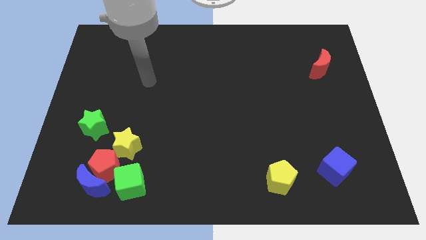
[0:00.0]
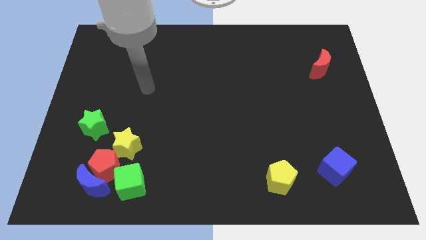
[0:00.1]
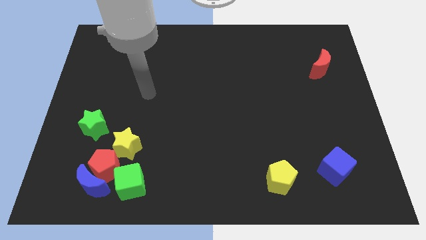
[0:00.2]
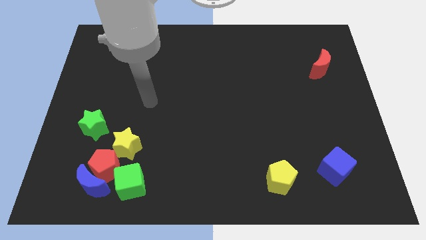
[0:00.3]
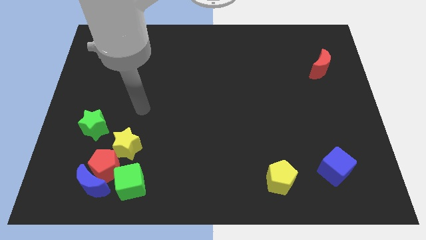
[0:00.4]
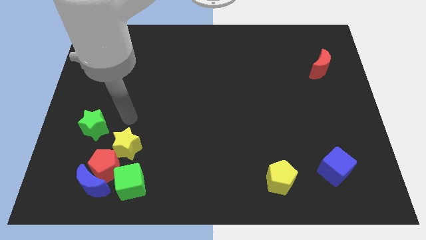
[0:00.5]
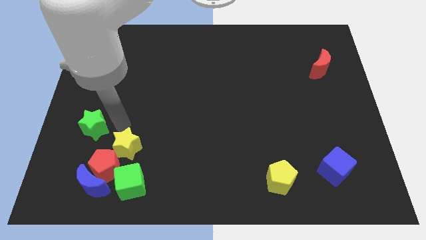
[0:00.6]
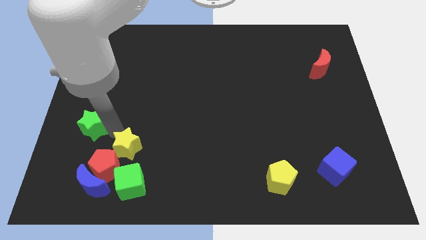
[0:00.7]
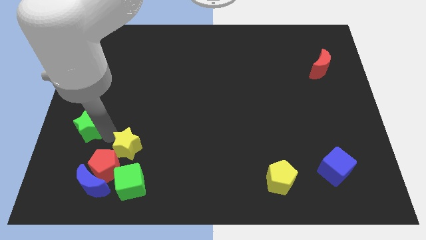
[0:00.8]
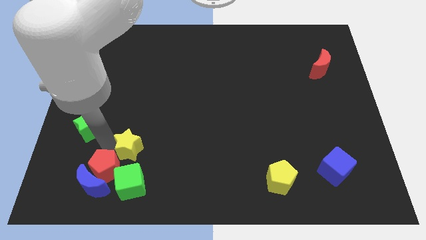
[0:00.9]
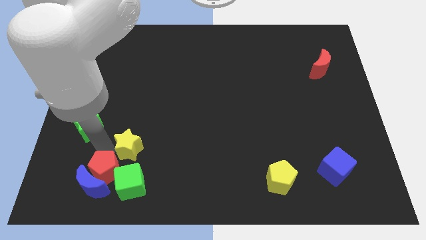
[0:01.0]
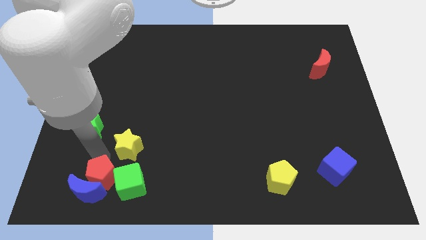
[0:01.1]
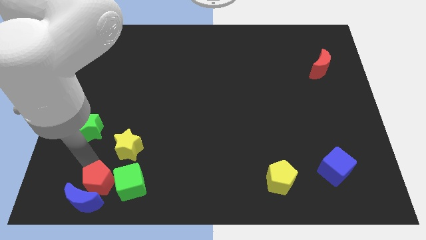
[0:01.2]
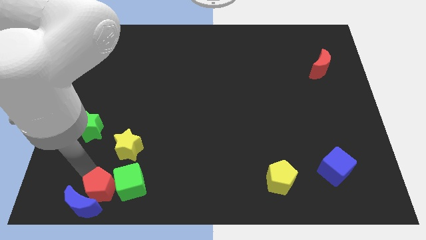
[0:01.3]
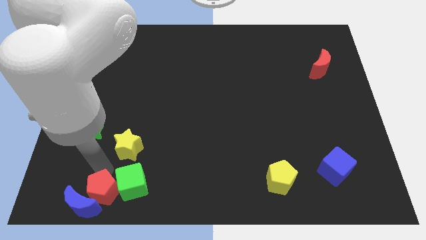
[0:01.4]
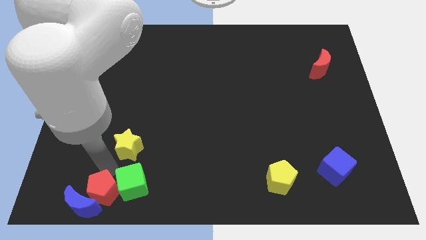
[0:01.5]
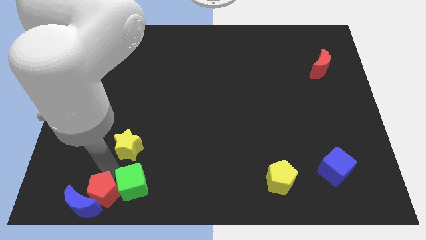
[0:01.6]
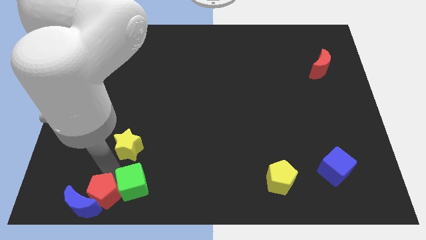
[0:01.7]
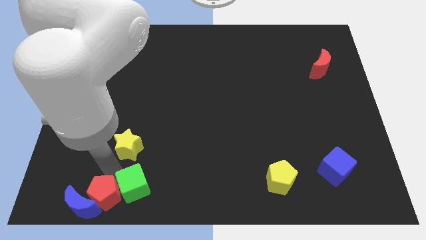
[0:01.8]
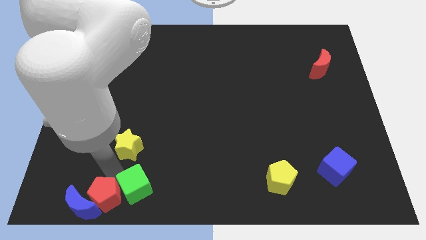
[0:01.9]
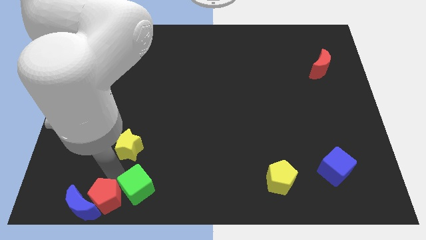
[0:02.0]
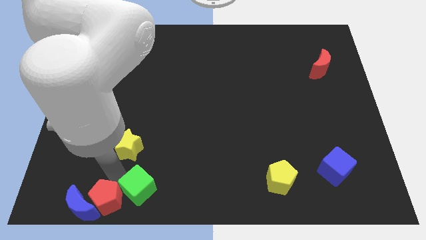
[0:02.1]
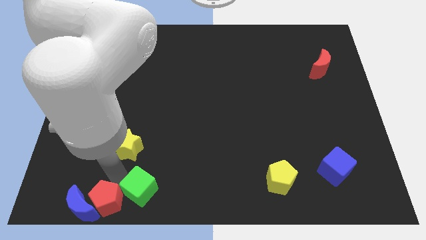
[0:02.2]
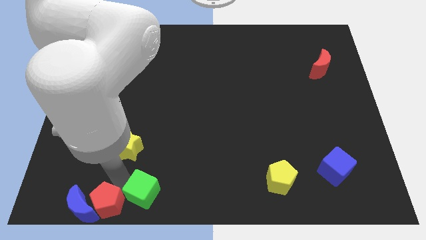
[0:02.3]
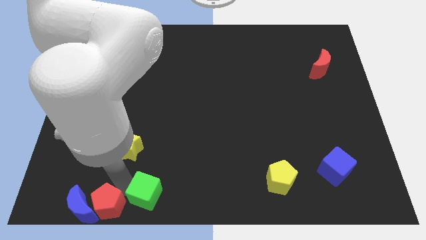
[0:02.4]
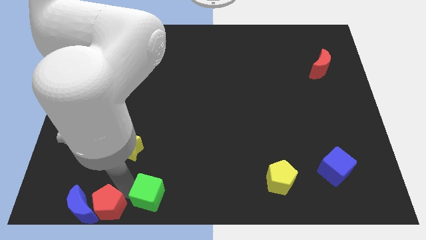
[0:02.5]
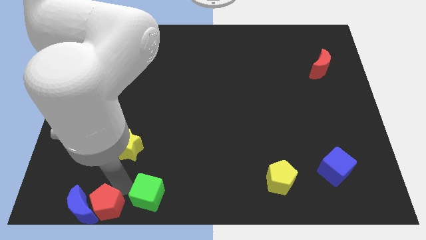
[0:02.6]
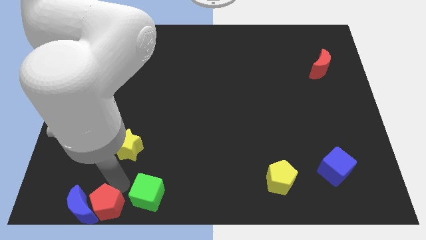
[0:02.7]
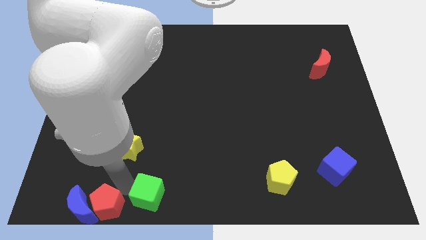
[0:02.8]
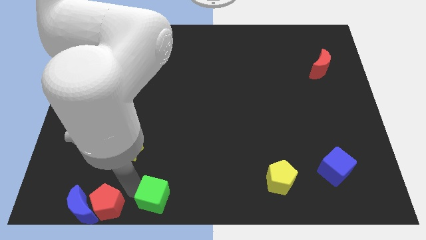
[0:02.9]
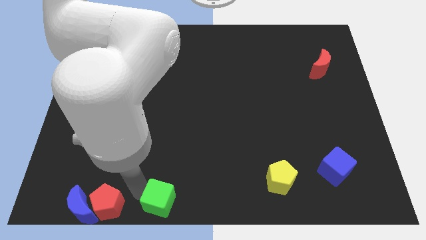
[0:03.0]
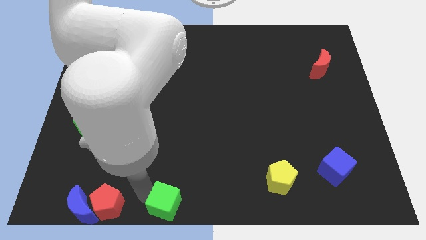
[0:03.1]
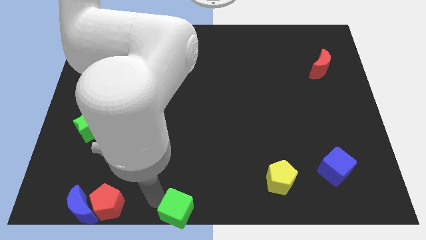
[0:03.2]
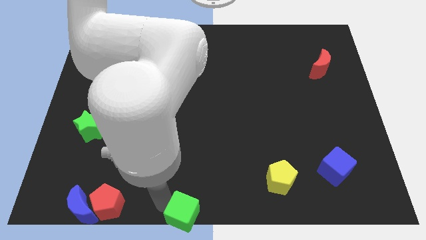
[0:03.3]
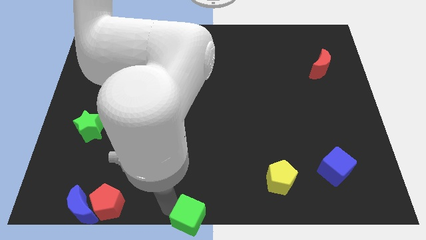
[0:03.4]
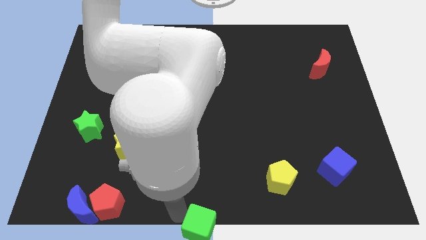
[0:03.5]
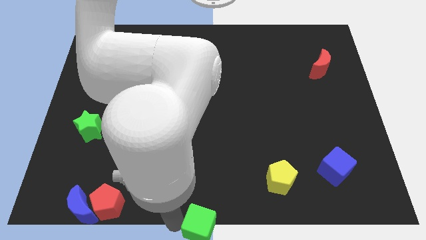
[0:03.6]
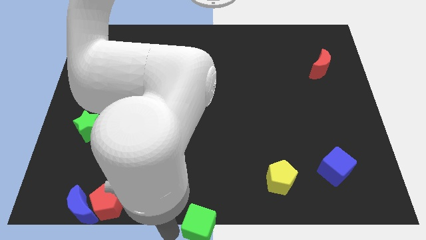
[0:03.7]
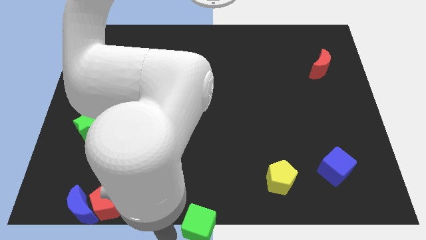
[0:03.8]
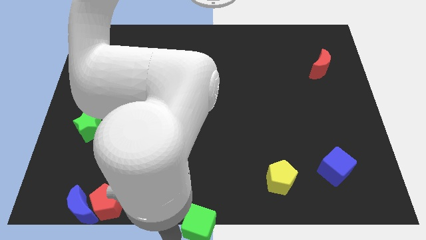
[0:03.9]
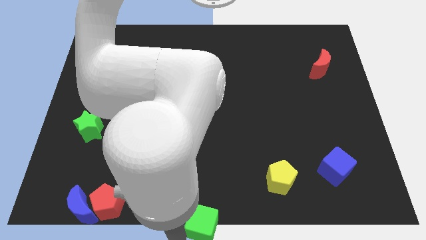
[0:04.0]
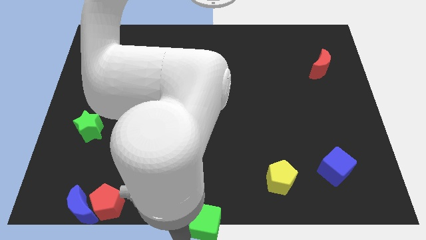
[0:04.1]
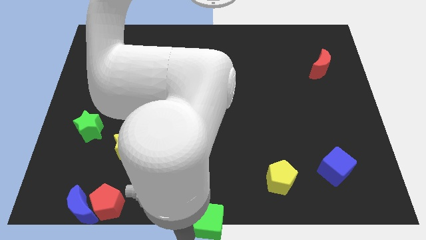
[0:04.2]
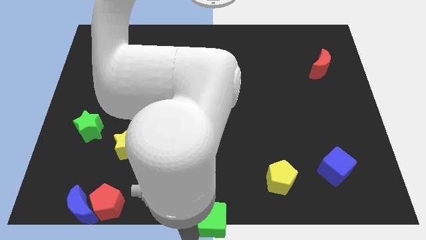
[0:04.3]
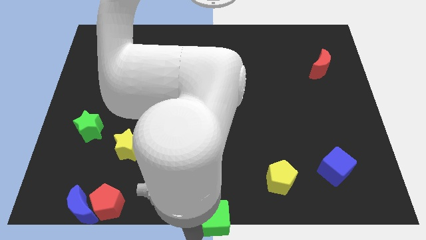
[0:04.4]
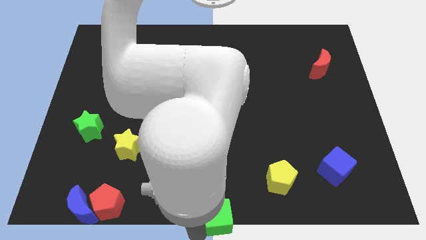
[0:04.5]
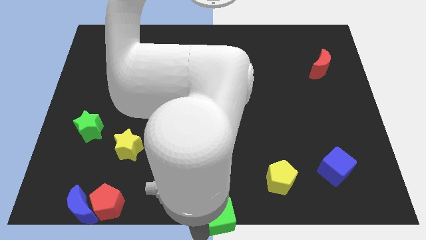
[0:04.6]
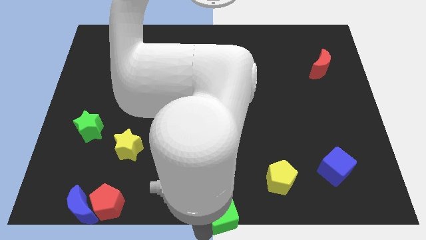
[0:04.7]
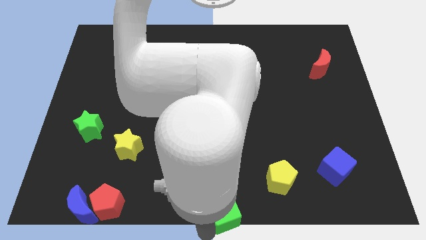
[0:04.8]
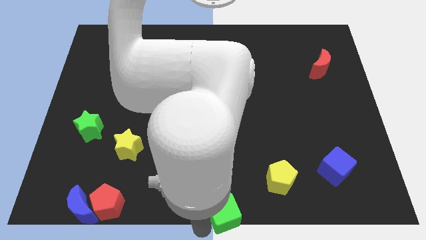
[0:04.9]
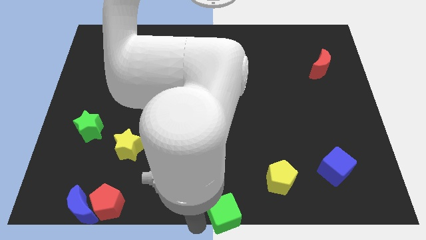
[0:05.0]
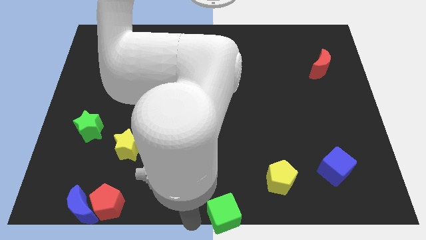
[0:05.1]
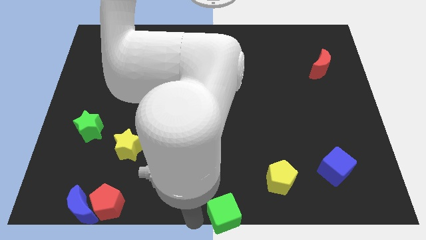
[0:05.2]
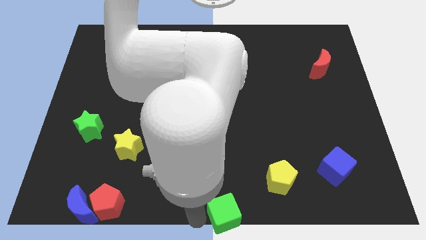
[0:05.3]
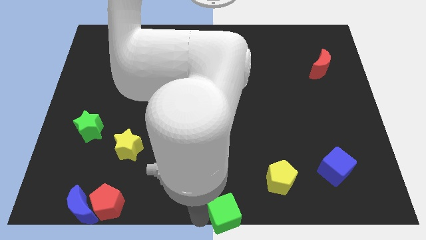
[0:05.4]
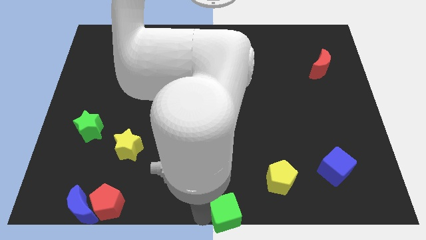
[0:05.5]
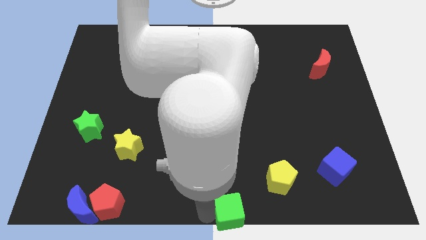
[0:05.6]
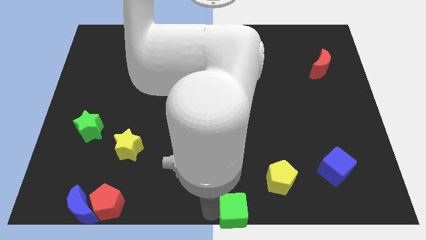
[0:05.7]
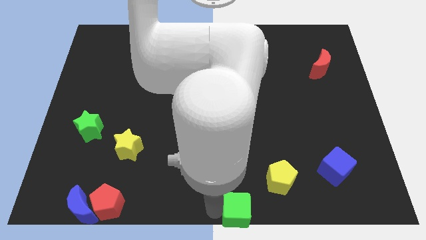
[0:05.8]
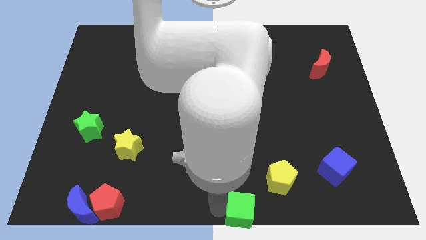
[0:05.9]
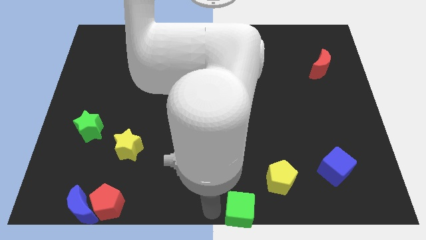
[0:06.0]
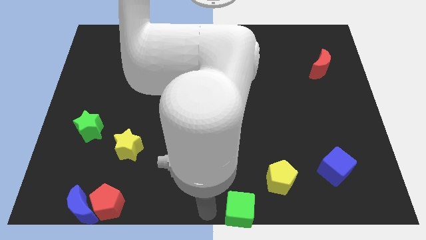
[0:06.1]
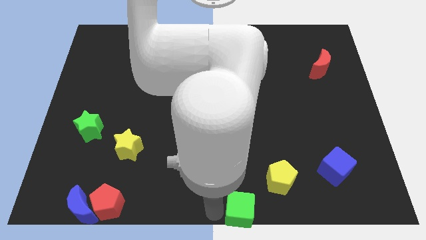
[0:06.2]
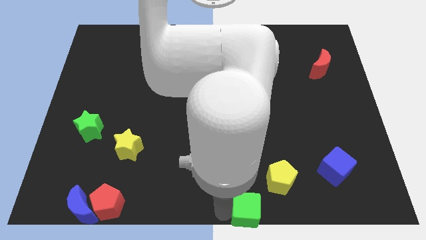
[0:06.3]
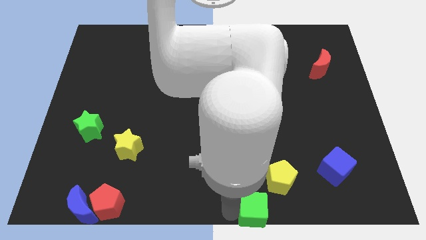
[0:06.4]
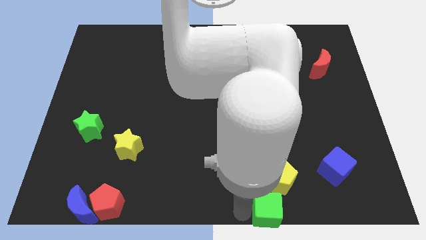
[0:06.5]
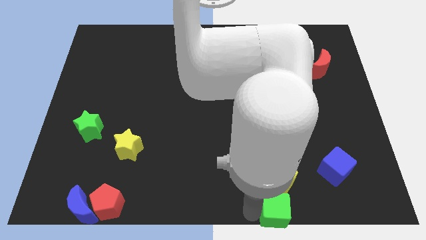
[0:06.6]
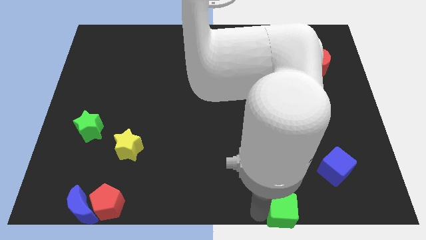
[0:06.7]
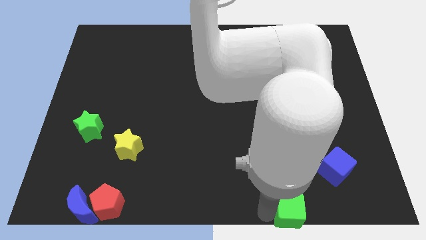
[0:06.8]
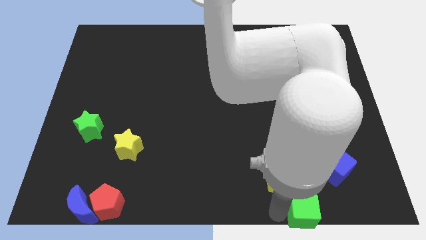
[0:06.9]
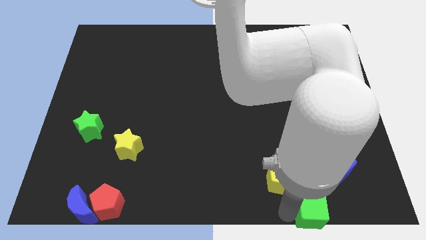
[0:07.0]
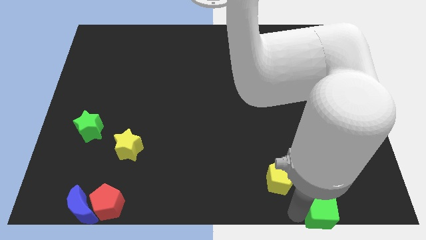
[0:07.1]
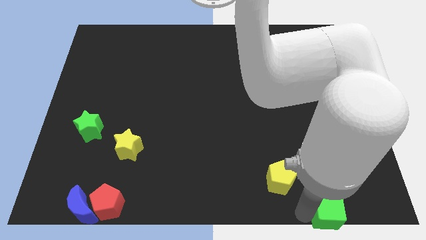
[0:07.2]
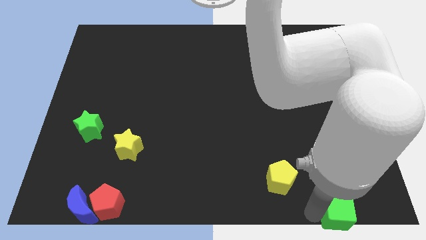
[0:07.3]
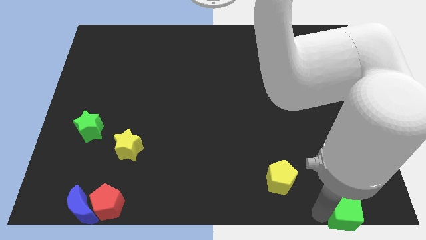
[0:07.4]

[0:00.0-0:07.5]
push the green cube to the bottom right corner
